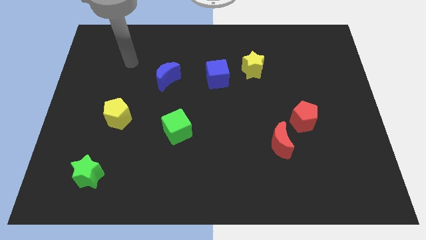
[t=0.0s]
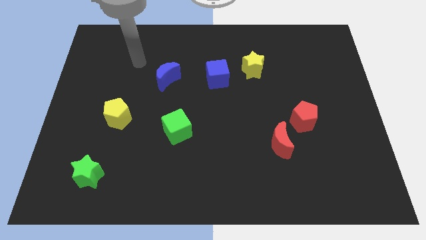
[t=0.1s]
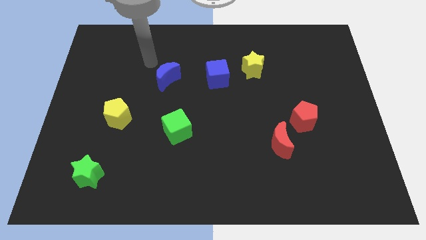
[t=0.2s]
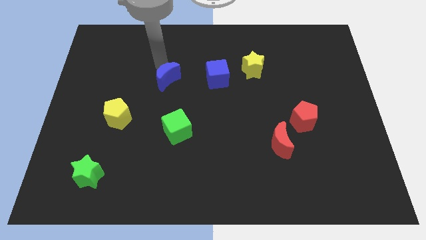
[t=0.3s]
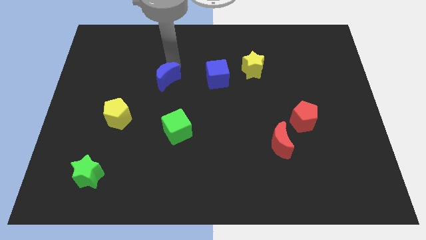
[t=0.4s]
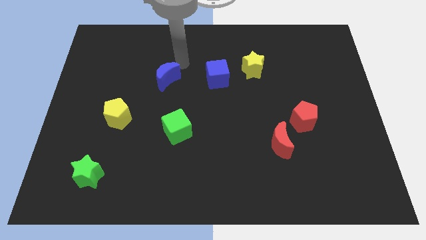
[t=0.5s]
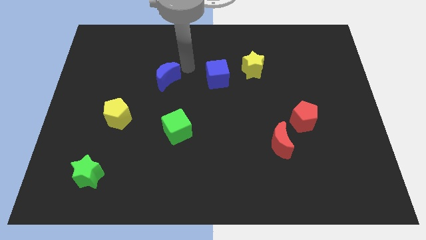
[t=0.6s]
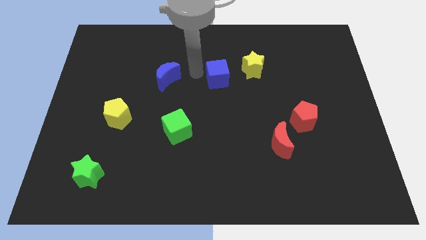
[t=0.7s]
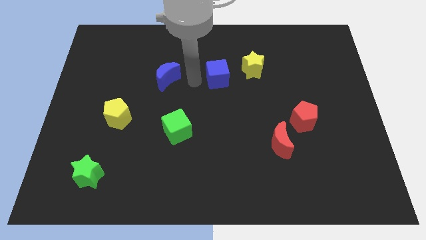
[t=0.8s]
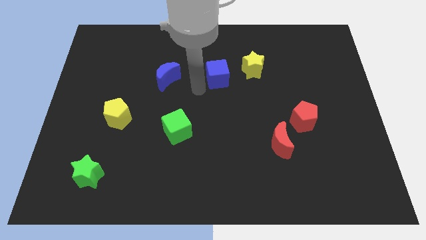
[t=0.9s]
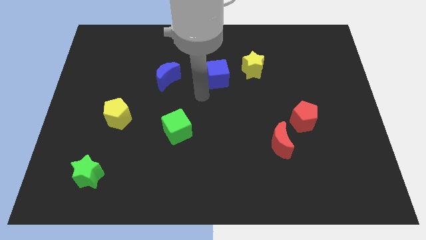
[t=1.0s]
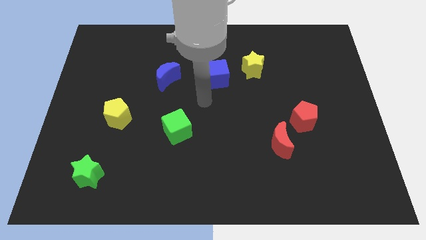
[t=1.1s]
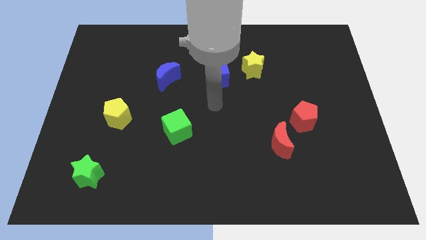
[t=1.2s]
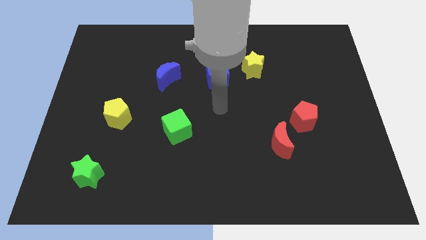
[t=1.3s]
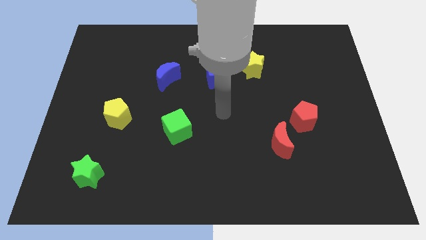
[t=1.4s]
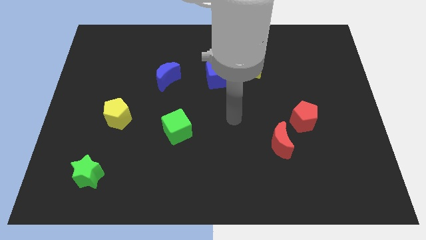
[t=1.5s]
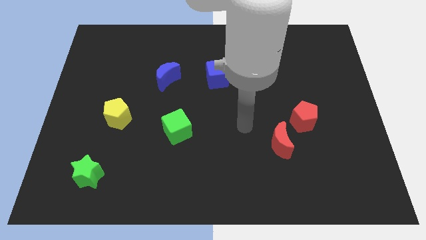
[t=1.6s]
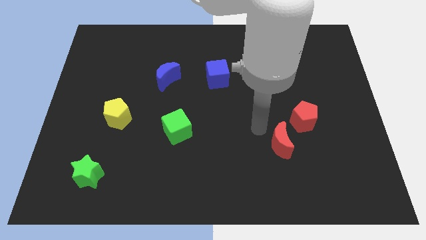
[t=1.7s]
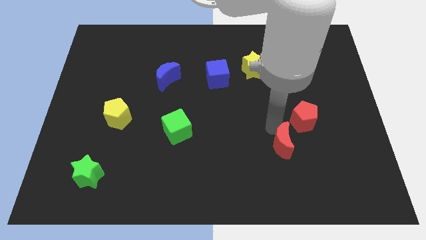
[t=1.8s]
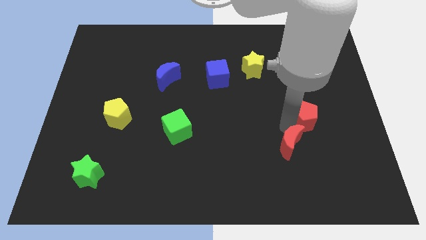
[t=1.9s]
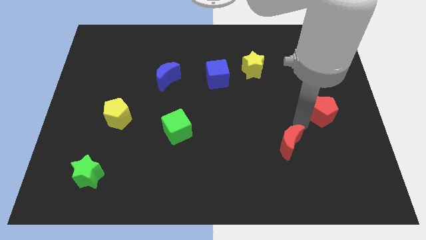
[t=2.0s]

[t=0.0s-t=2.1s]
pull the red moon apart from the red pentagon

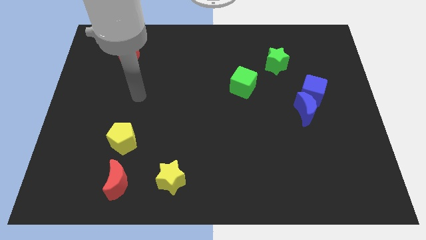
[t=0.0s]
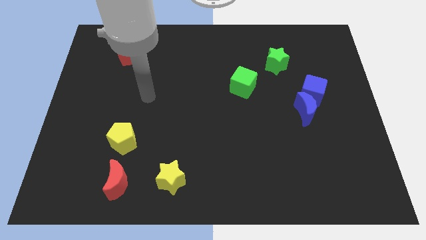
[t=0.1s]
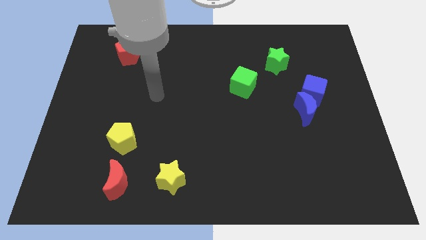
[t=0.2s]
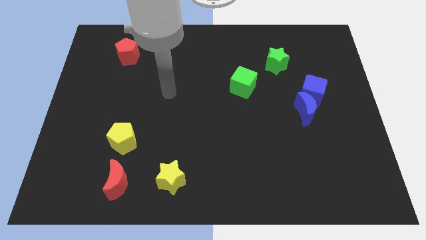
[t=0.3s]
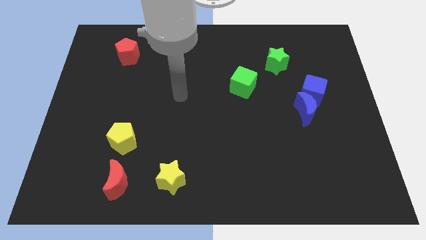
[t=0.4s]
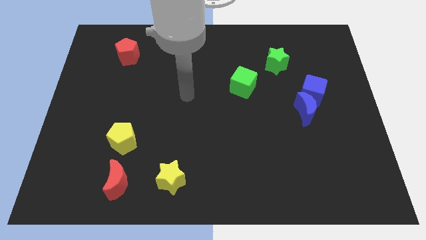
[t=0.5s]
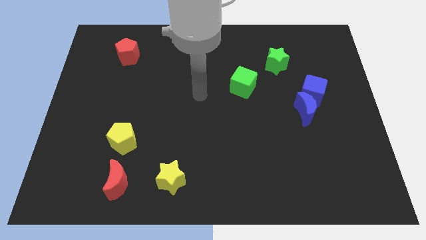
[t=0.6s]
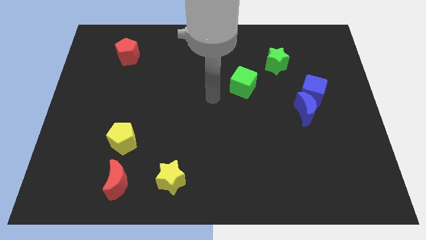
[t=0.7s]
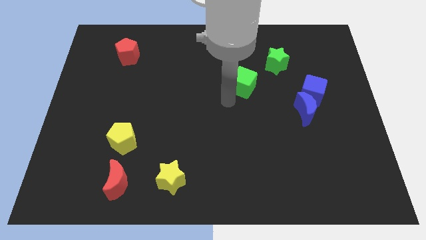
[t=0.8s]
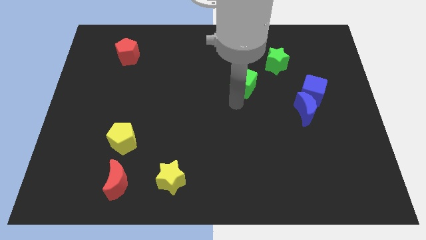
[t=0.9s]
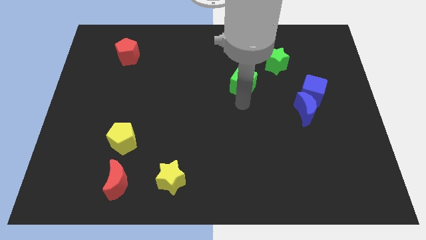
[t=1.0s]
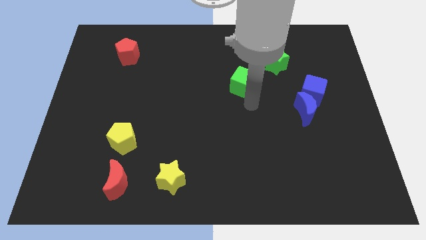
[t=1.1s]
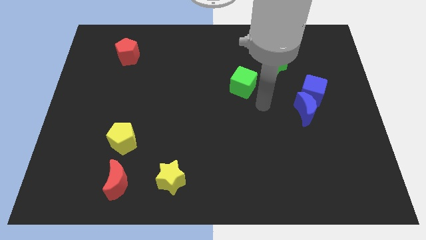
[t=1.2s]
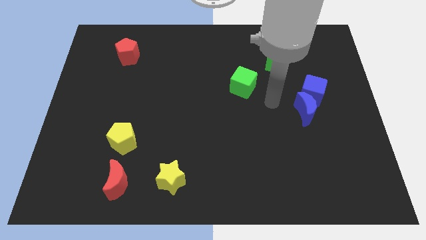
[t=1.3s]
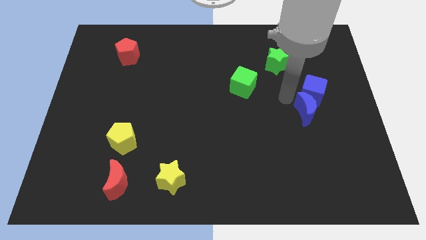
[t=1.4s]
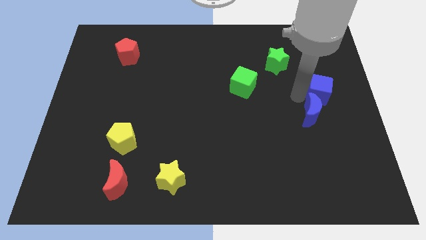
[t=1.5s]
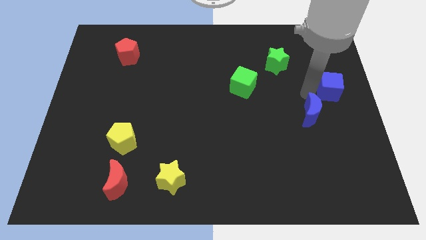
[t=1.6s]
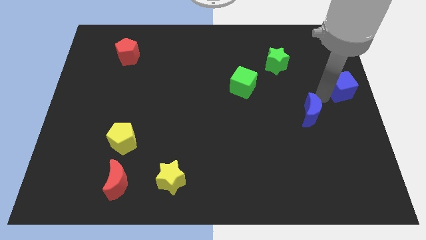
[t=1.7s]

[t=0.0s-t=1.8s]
pull the blue moon apart from the blue cube

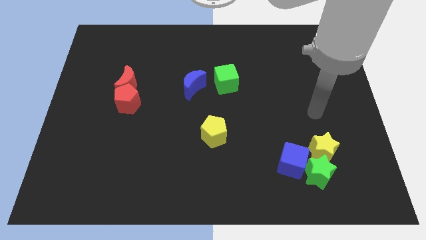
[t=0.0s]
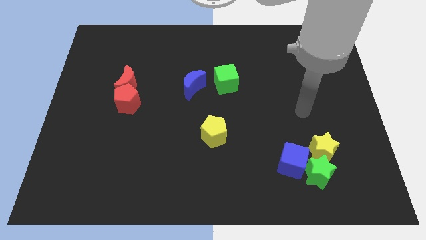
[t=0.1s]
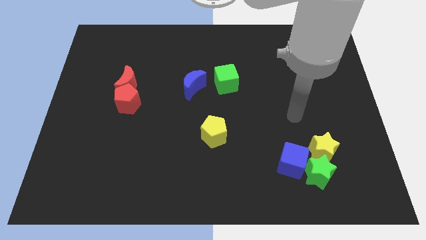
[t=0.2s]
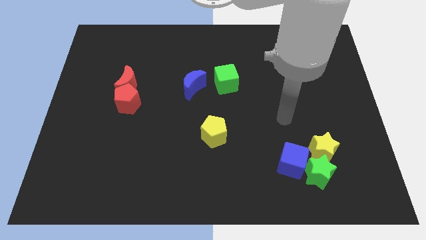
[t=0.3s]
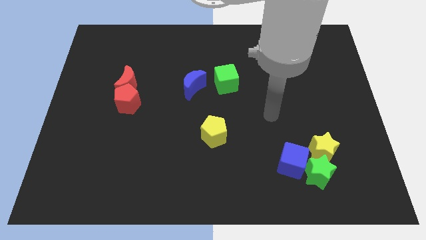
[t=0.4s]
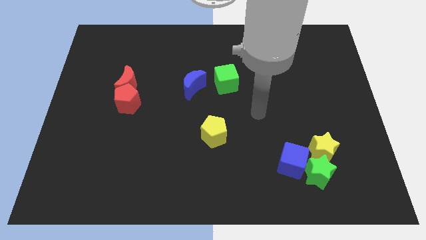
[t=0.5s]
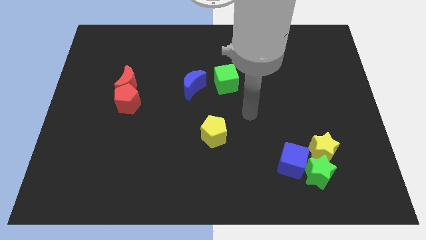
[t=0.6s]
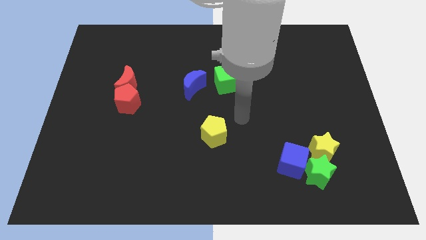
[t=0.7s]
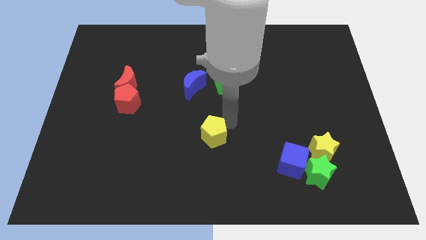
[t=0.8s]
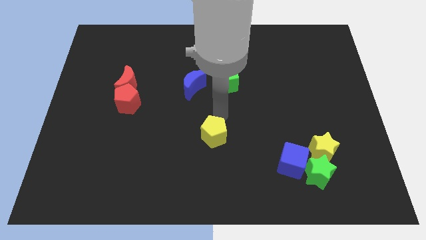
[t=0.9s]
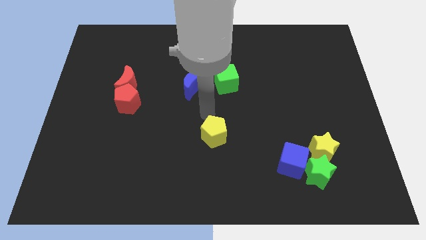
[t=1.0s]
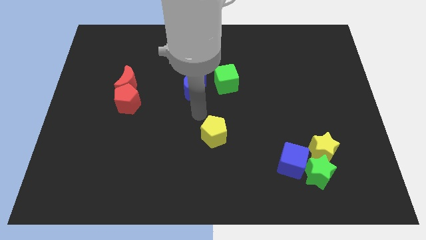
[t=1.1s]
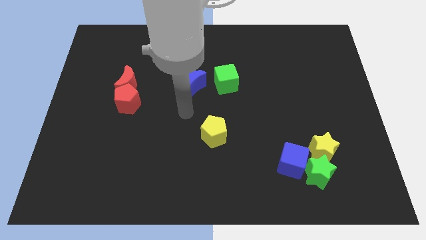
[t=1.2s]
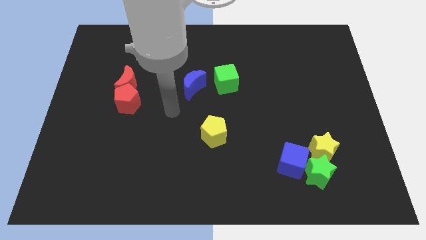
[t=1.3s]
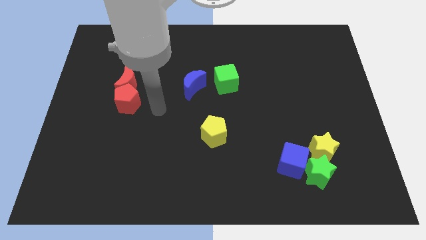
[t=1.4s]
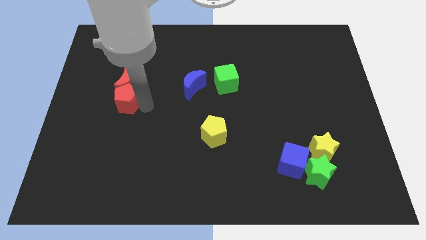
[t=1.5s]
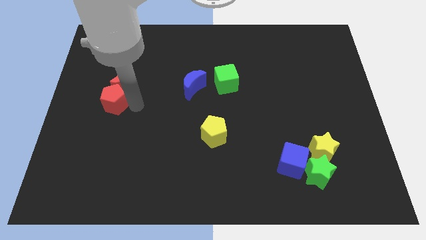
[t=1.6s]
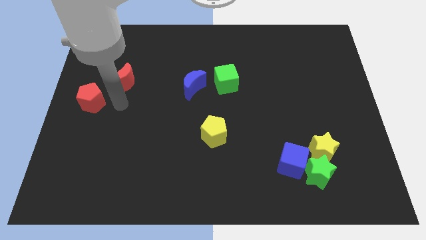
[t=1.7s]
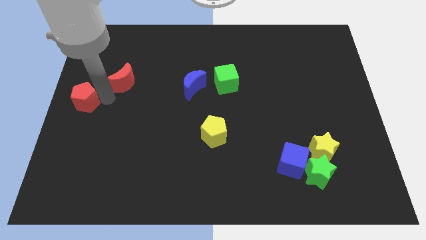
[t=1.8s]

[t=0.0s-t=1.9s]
move the red moon away from the red pentagon

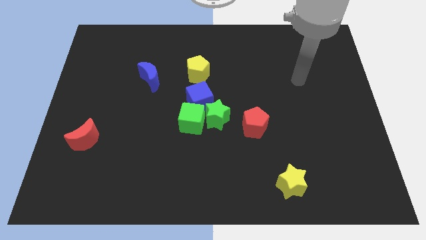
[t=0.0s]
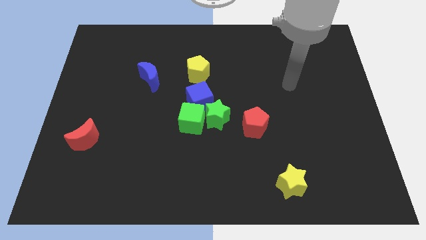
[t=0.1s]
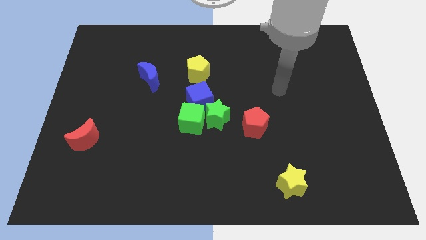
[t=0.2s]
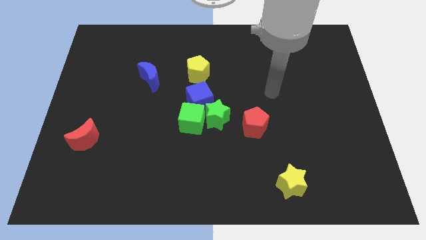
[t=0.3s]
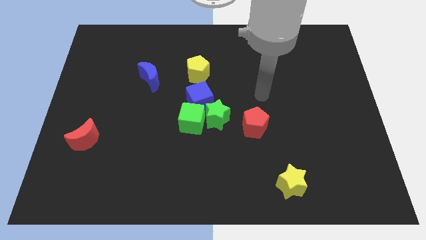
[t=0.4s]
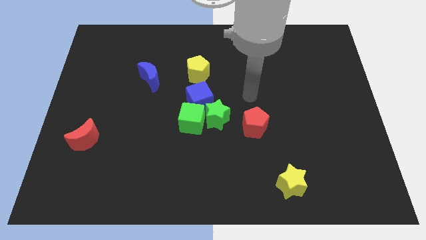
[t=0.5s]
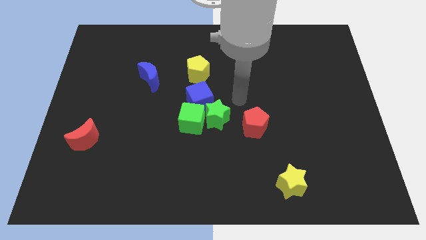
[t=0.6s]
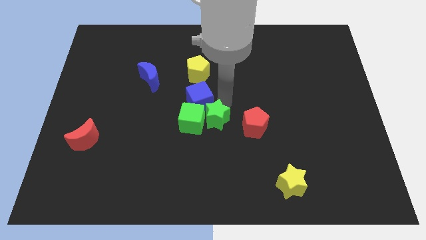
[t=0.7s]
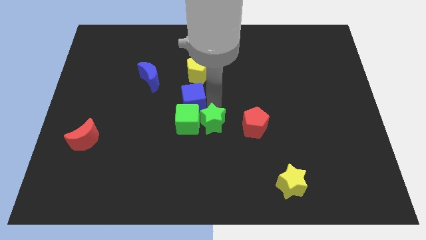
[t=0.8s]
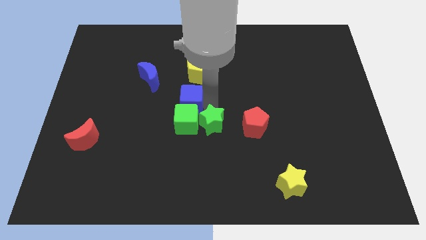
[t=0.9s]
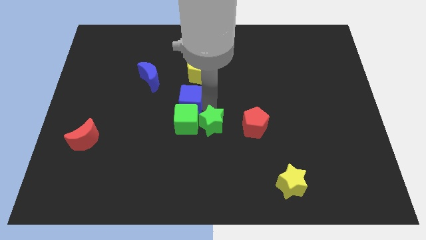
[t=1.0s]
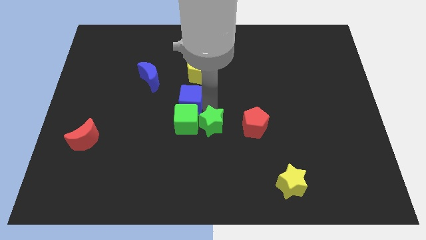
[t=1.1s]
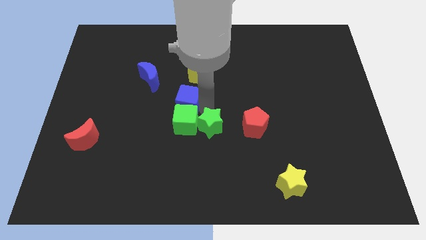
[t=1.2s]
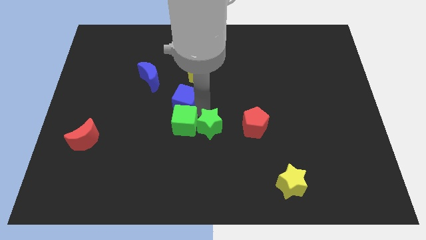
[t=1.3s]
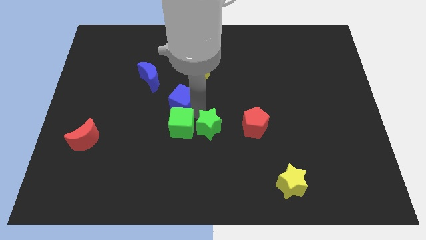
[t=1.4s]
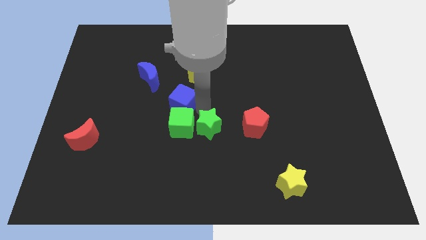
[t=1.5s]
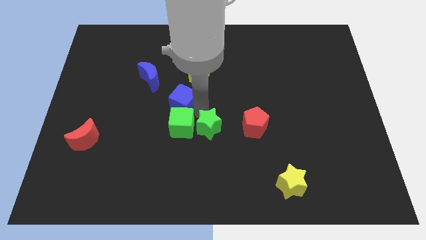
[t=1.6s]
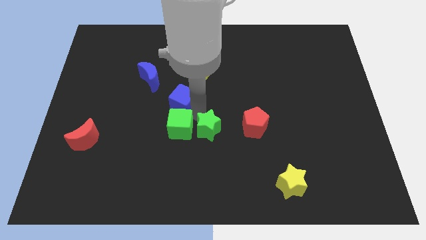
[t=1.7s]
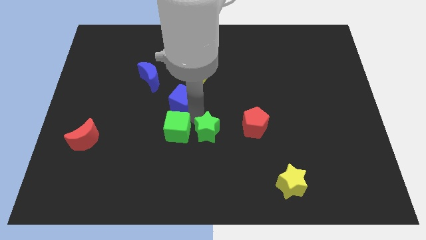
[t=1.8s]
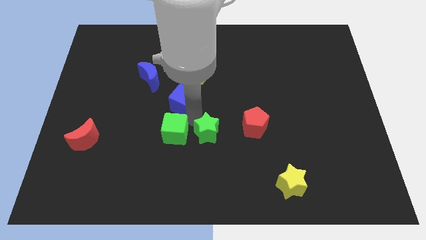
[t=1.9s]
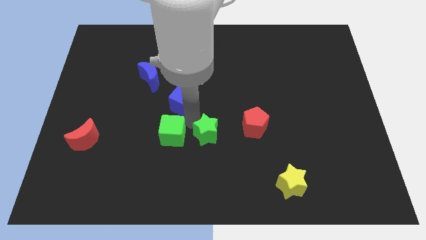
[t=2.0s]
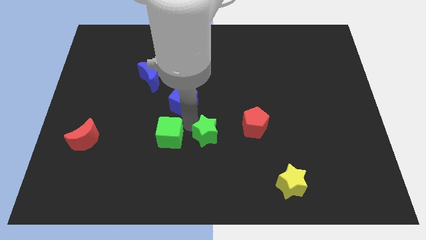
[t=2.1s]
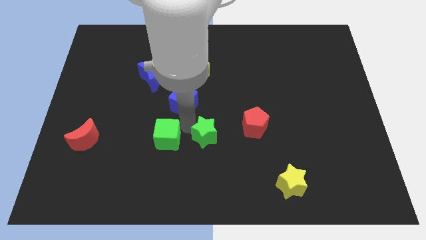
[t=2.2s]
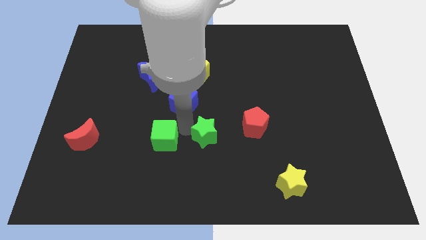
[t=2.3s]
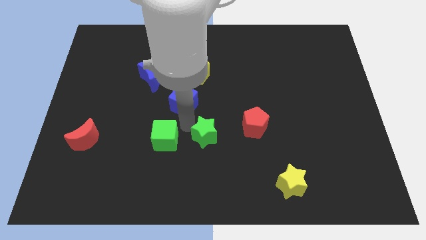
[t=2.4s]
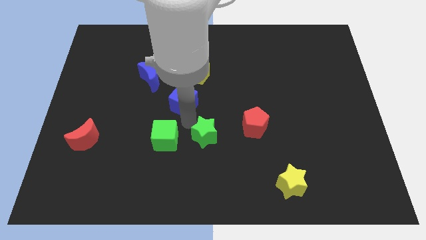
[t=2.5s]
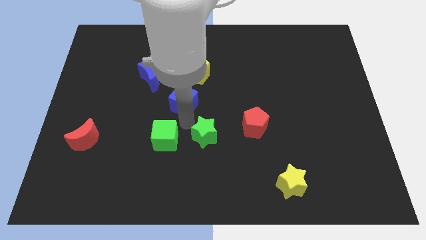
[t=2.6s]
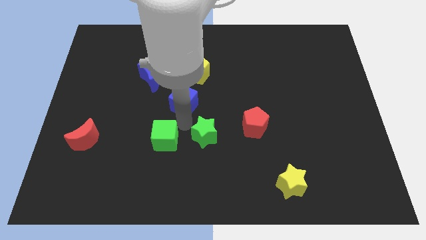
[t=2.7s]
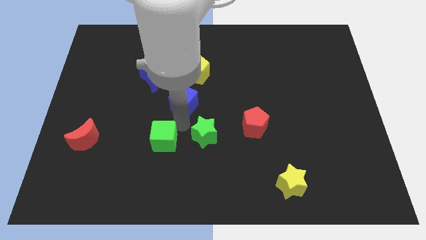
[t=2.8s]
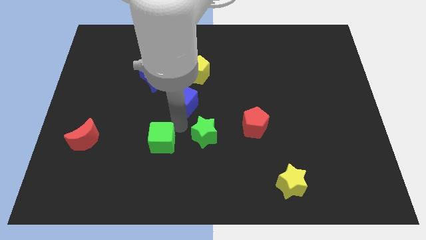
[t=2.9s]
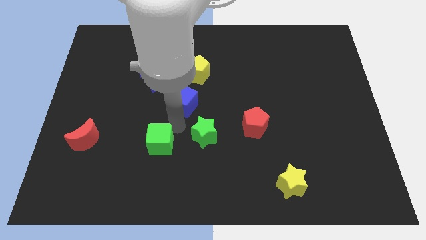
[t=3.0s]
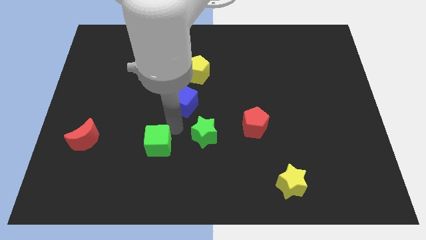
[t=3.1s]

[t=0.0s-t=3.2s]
separate the green cube from the green star and blue cube

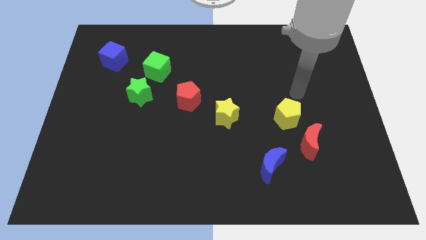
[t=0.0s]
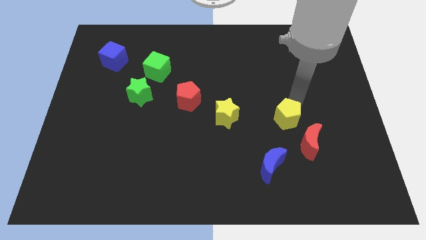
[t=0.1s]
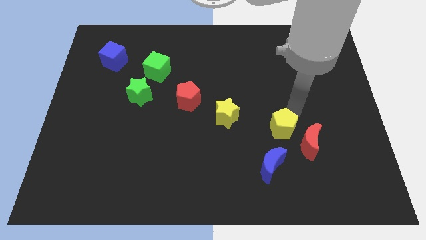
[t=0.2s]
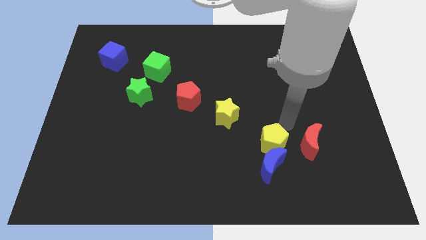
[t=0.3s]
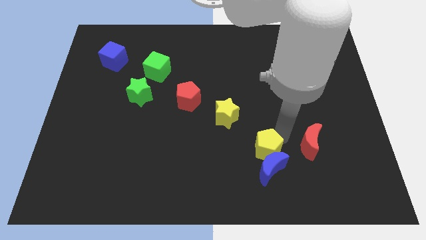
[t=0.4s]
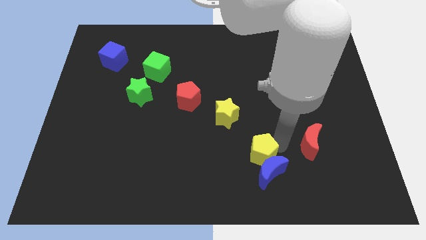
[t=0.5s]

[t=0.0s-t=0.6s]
separate the red moon from the yellow pentagon
